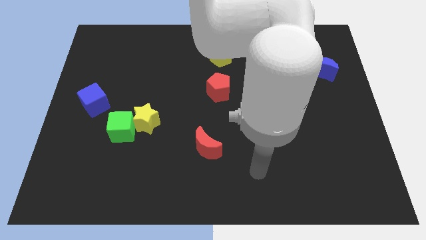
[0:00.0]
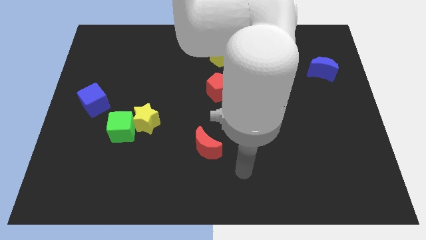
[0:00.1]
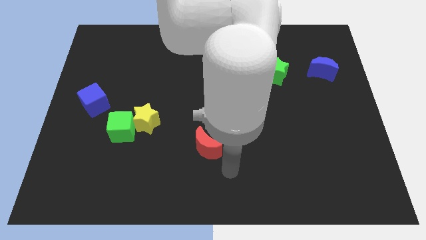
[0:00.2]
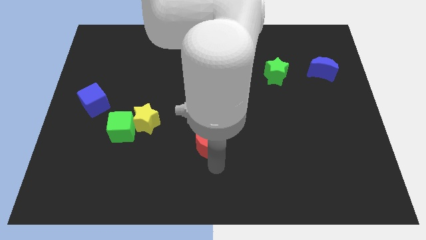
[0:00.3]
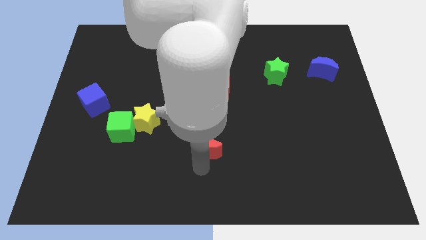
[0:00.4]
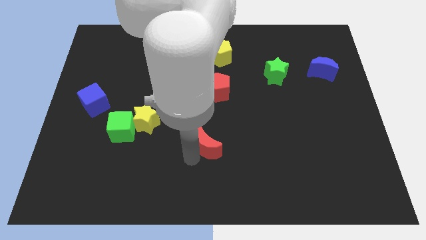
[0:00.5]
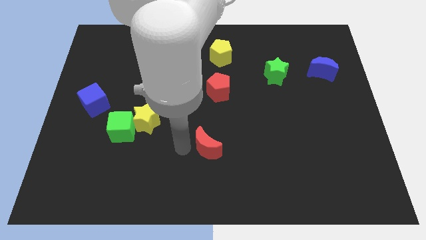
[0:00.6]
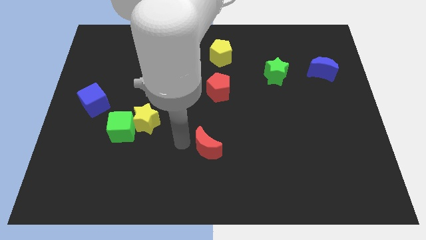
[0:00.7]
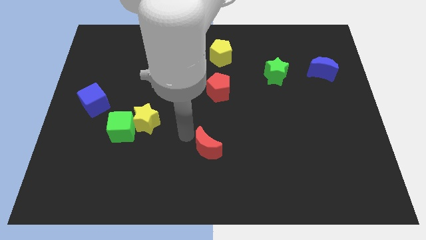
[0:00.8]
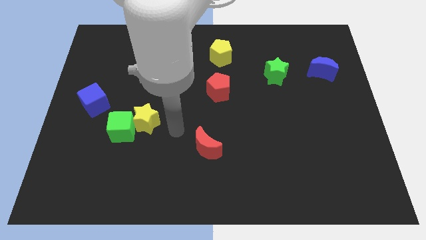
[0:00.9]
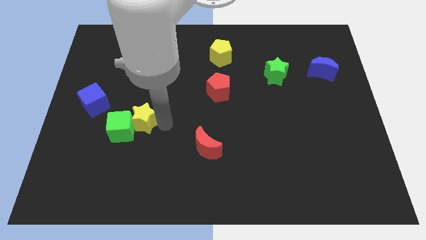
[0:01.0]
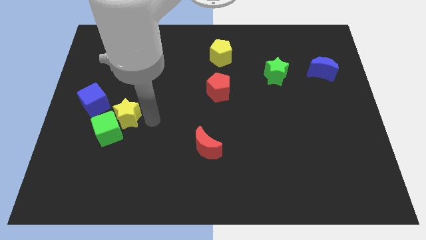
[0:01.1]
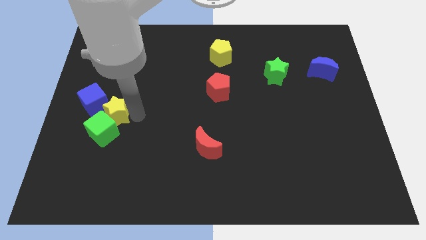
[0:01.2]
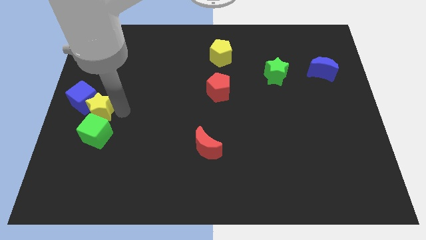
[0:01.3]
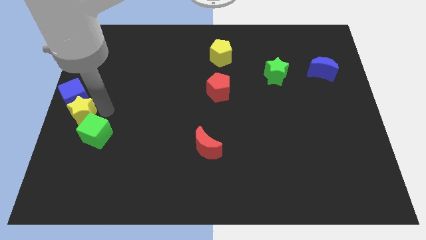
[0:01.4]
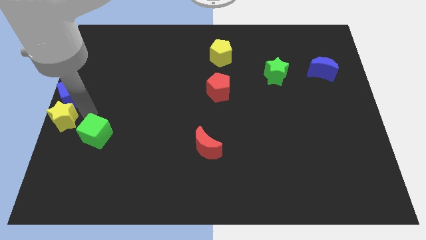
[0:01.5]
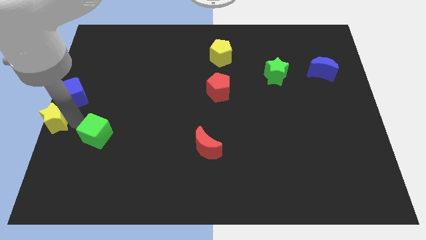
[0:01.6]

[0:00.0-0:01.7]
move the green cube away from the yellow star

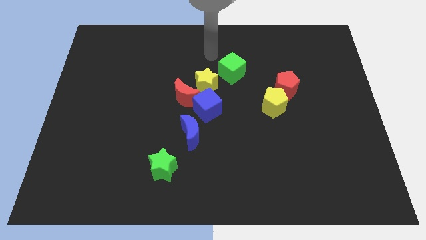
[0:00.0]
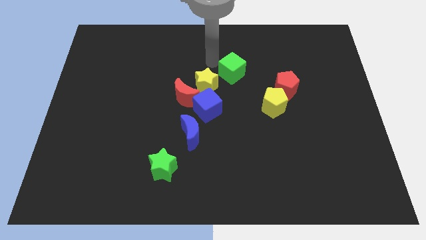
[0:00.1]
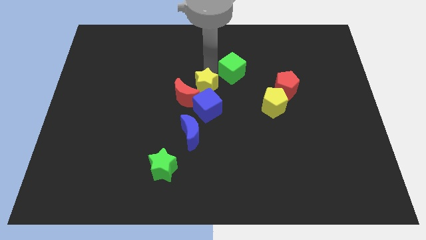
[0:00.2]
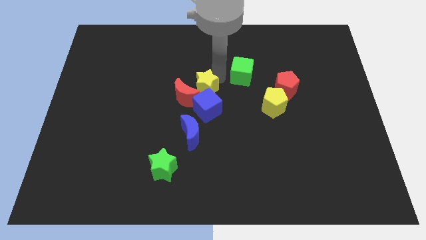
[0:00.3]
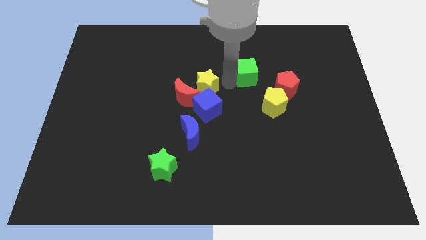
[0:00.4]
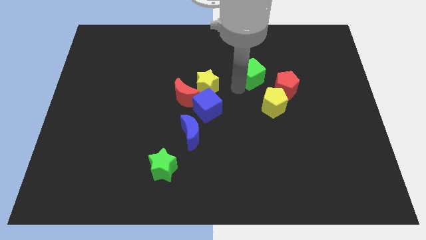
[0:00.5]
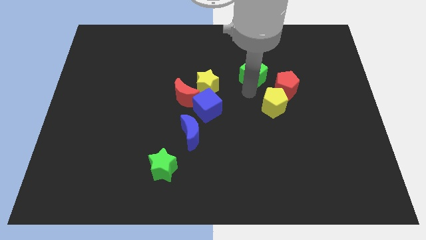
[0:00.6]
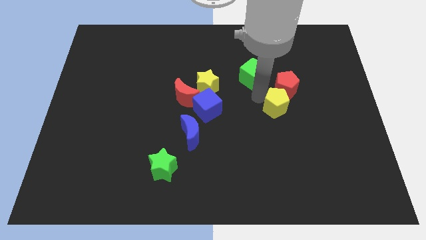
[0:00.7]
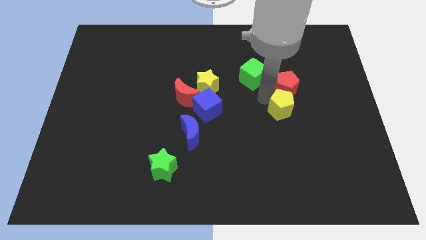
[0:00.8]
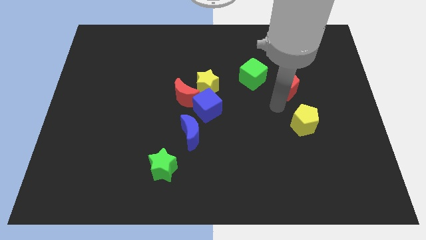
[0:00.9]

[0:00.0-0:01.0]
move the red pentagon away from the yellow pentagon

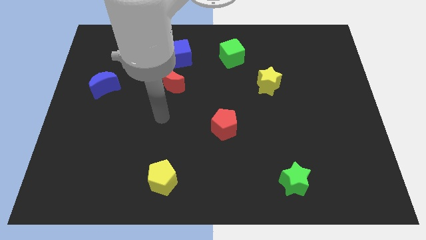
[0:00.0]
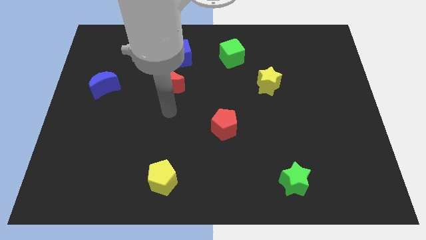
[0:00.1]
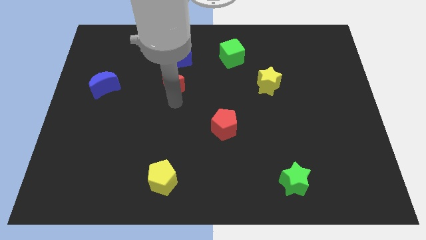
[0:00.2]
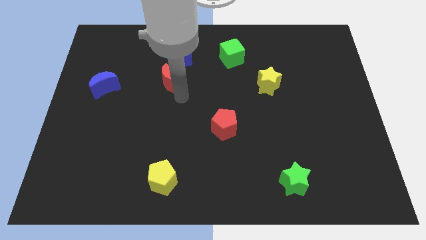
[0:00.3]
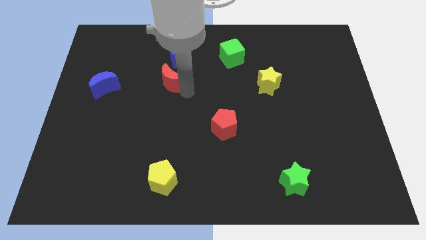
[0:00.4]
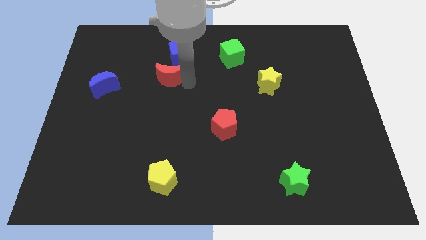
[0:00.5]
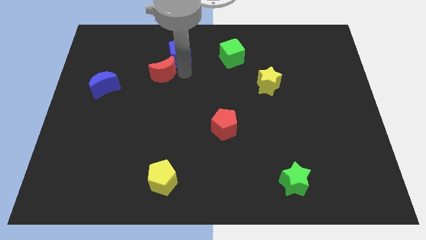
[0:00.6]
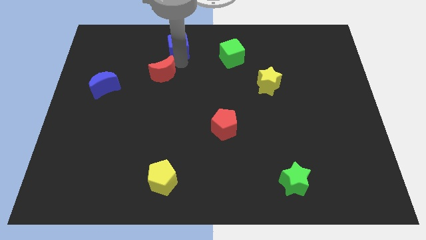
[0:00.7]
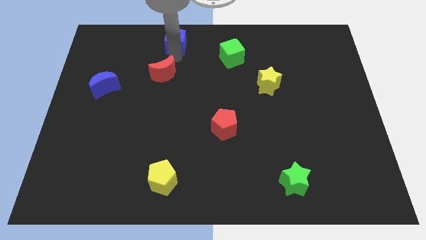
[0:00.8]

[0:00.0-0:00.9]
move the red moon away from the blue cube

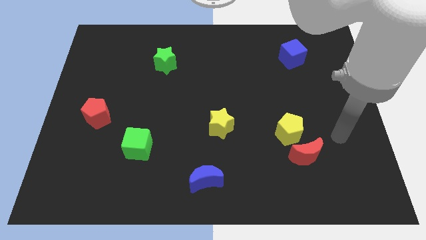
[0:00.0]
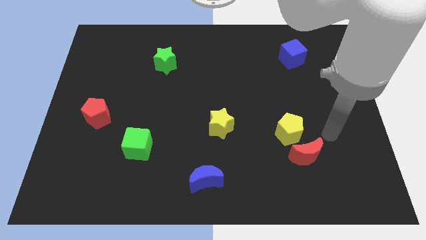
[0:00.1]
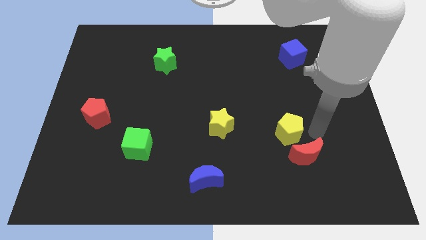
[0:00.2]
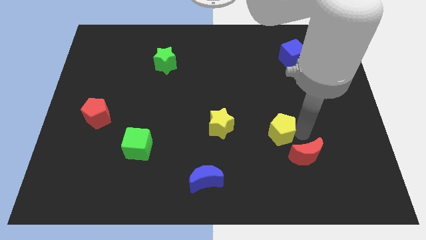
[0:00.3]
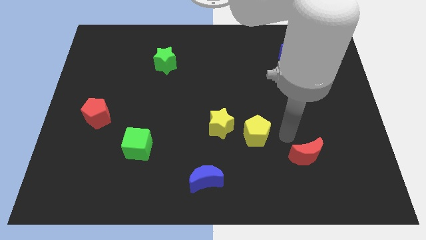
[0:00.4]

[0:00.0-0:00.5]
pull the red moon apart from the yellow pentagon

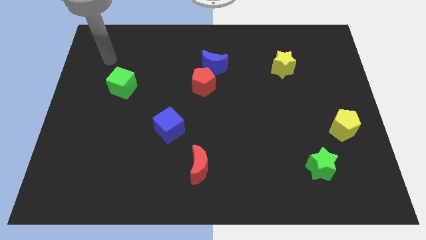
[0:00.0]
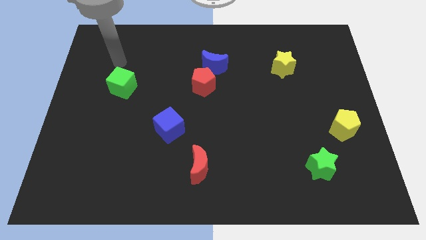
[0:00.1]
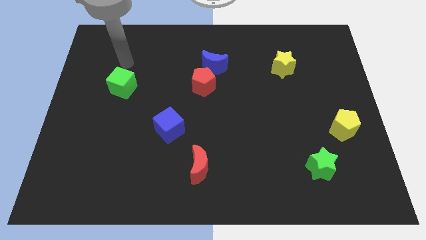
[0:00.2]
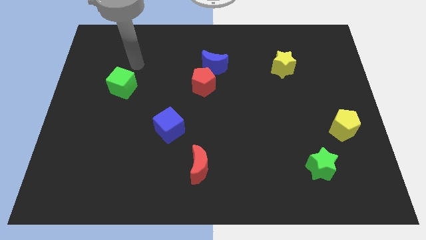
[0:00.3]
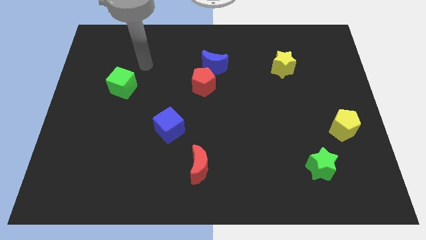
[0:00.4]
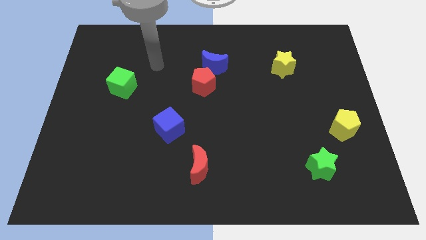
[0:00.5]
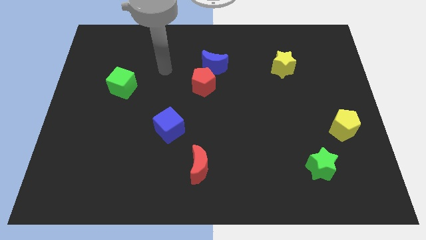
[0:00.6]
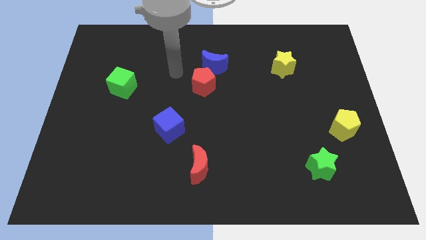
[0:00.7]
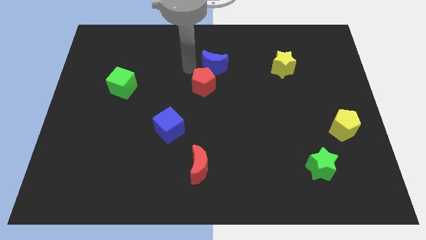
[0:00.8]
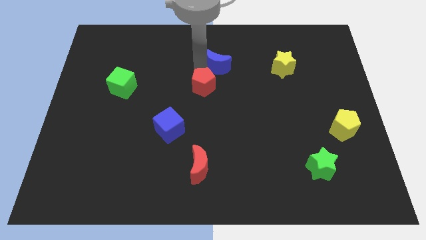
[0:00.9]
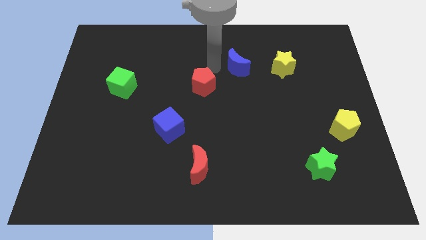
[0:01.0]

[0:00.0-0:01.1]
move the red pentagon away from the blue moon

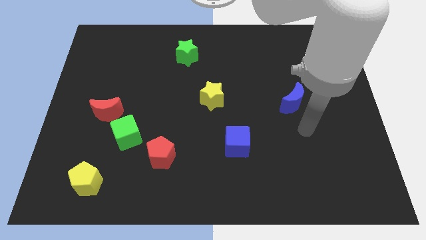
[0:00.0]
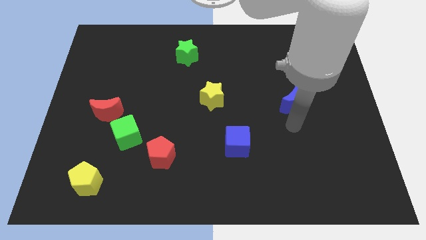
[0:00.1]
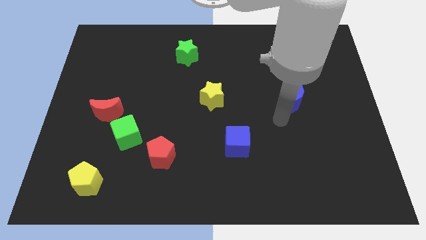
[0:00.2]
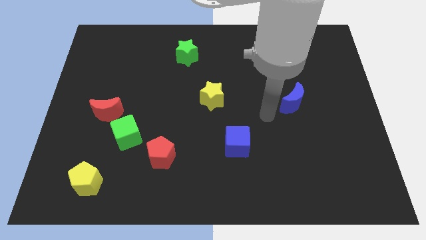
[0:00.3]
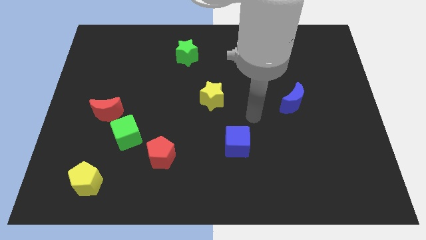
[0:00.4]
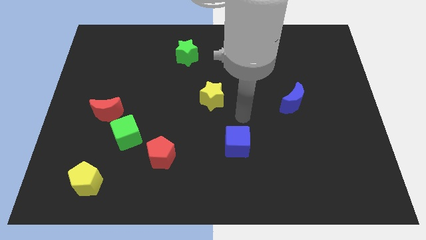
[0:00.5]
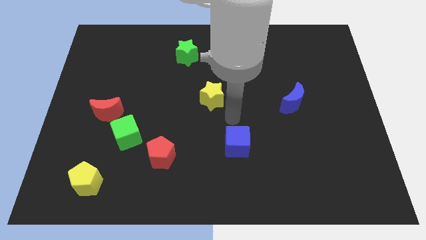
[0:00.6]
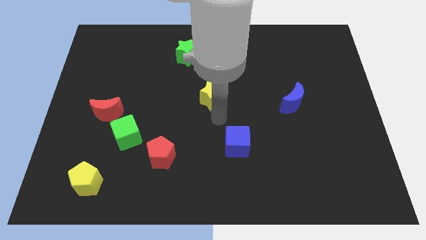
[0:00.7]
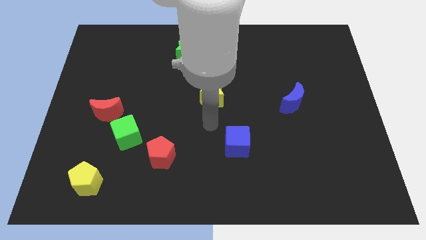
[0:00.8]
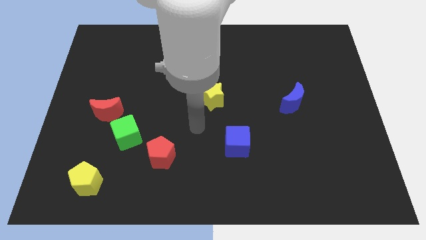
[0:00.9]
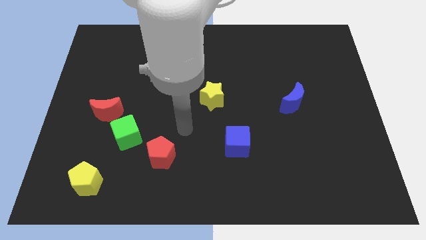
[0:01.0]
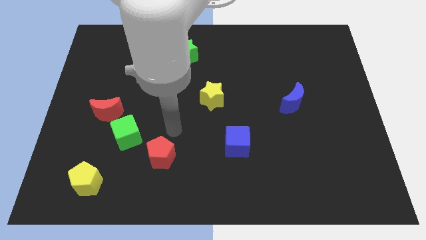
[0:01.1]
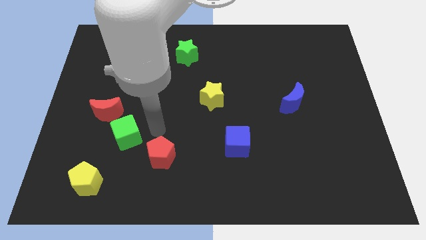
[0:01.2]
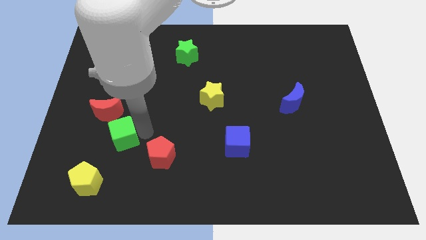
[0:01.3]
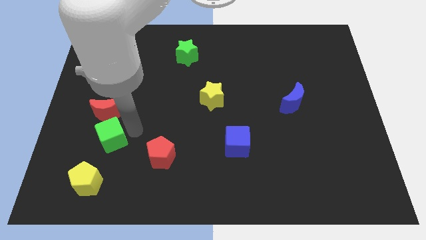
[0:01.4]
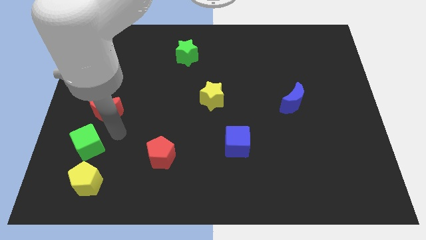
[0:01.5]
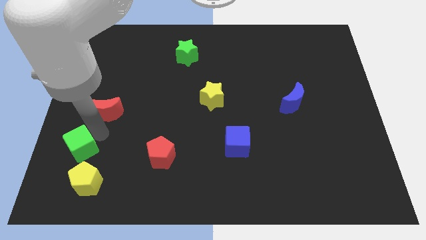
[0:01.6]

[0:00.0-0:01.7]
separate the red moon from the green cube

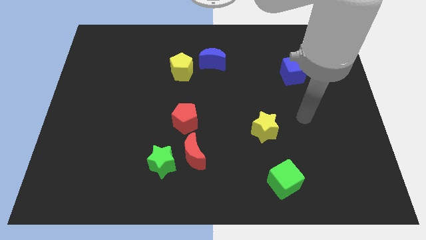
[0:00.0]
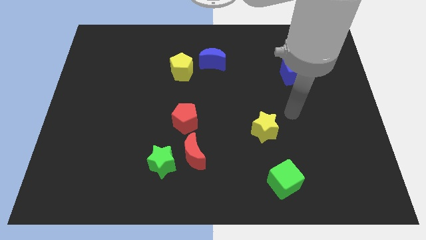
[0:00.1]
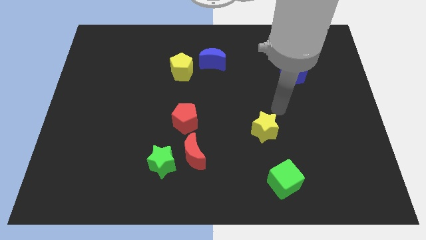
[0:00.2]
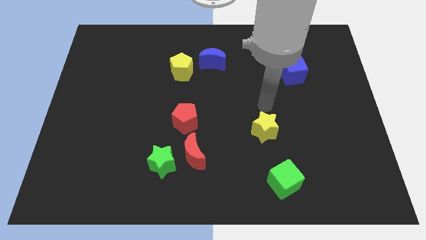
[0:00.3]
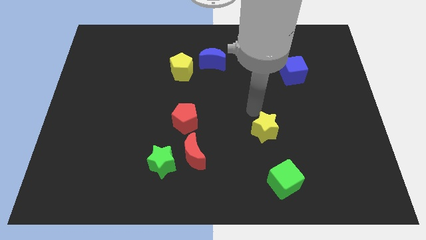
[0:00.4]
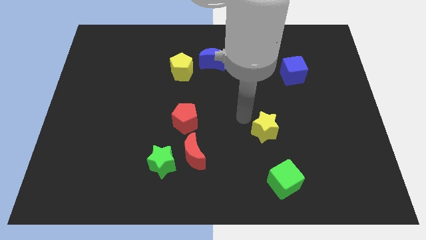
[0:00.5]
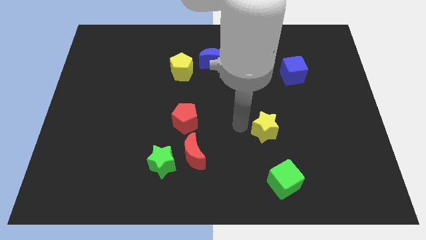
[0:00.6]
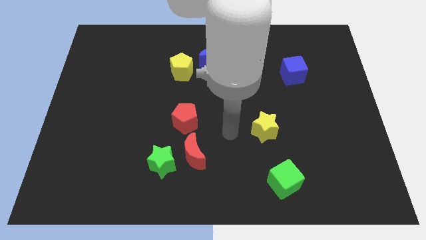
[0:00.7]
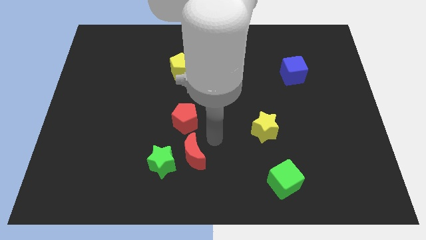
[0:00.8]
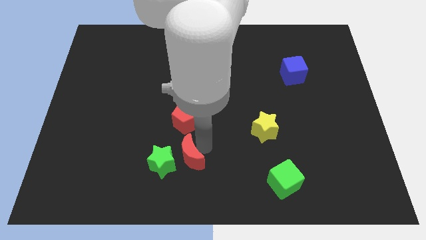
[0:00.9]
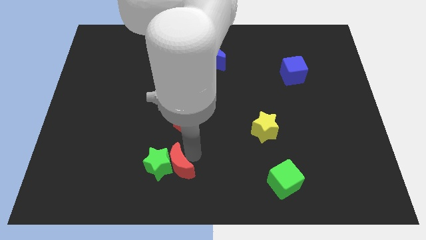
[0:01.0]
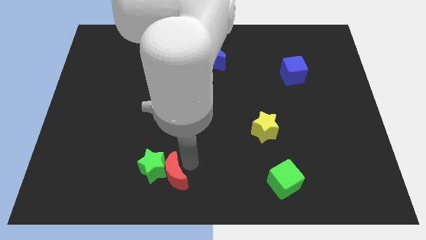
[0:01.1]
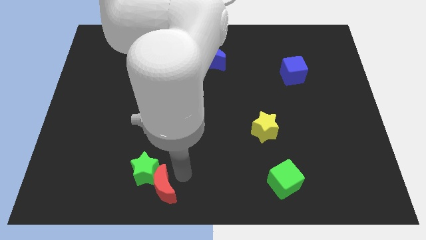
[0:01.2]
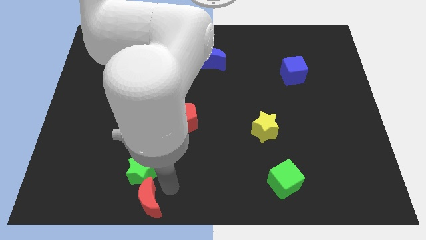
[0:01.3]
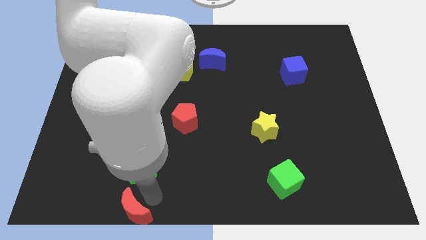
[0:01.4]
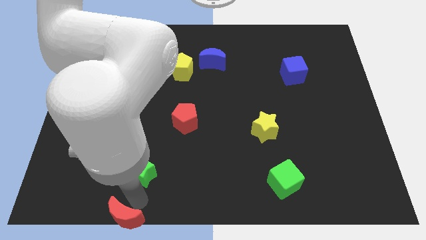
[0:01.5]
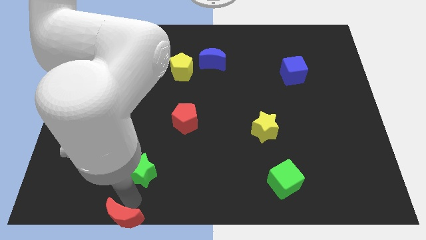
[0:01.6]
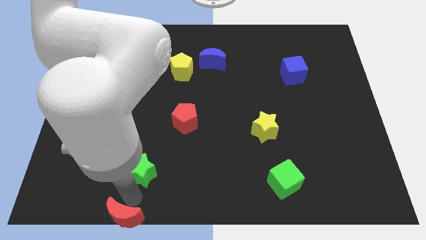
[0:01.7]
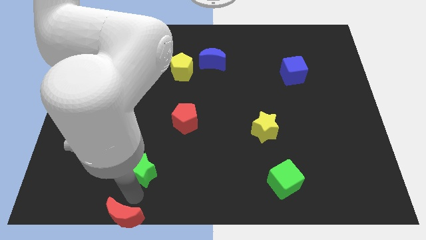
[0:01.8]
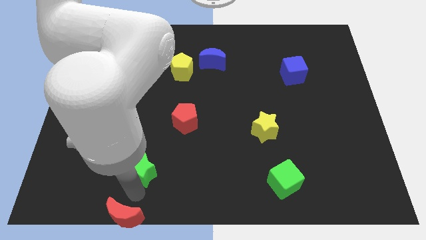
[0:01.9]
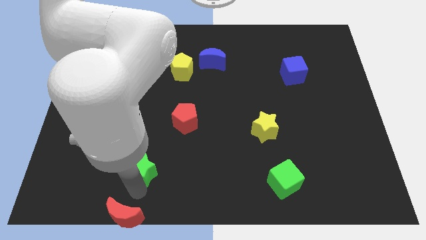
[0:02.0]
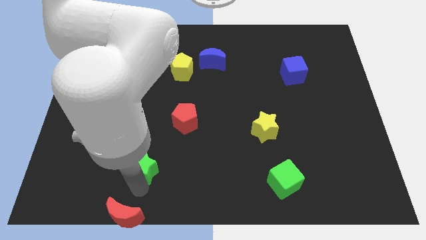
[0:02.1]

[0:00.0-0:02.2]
separate the green star from the red moon
